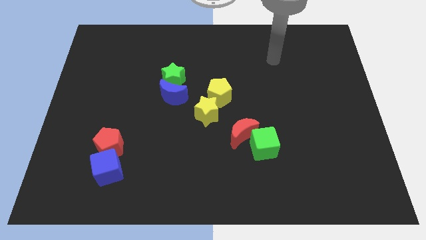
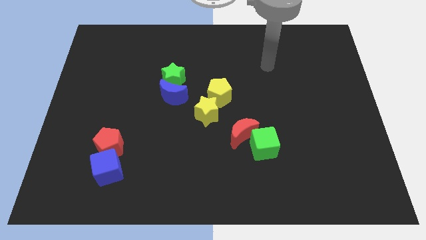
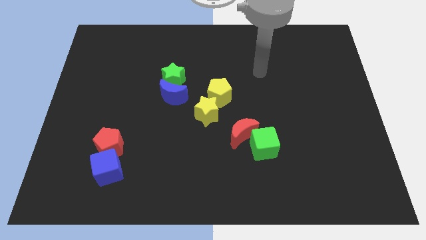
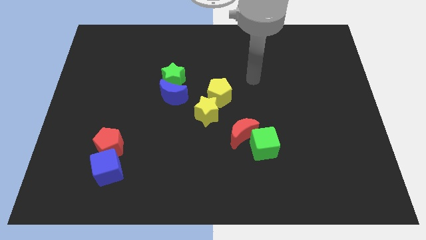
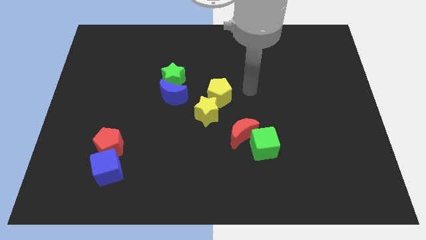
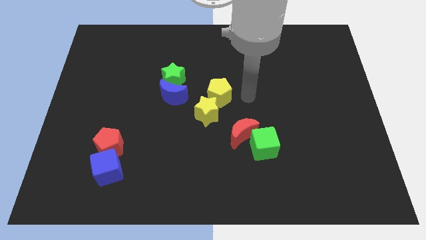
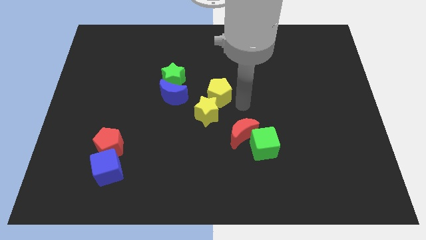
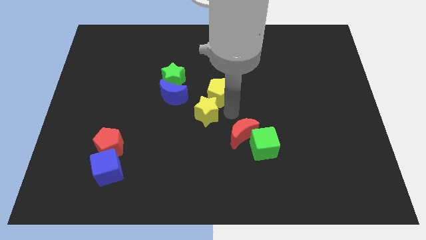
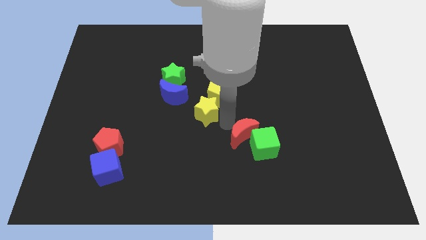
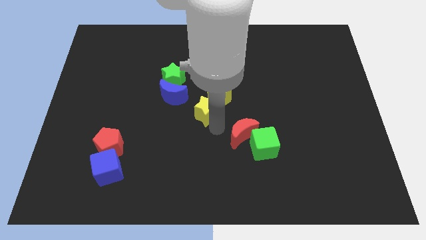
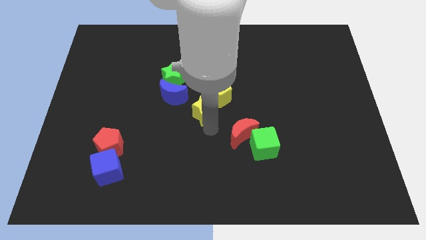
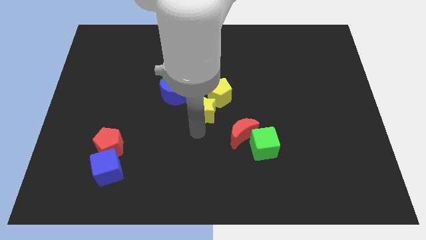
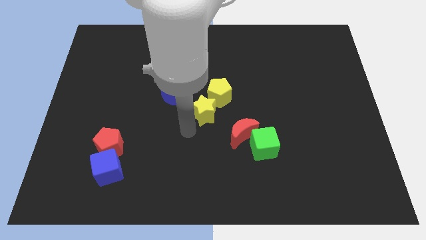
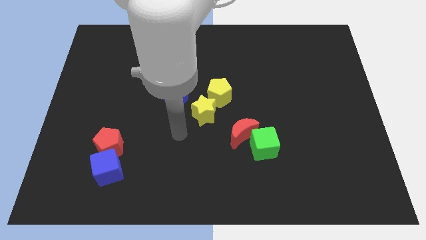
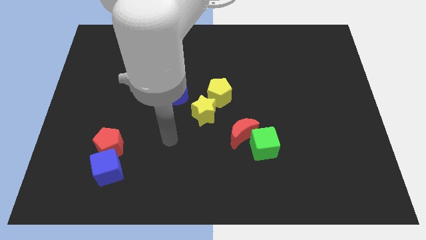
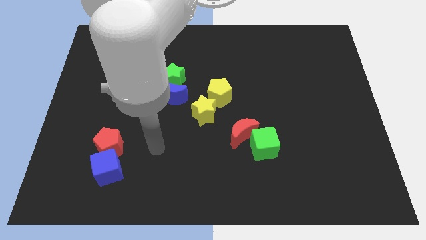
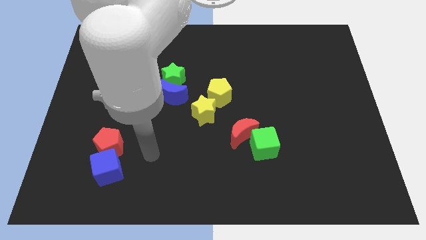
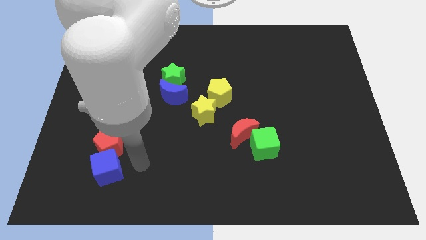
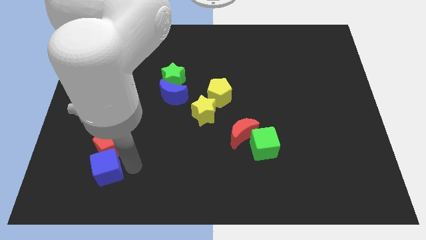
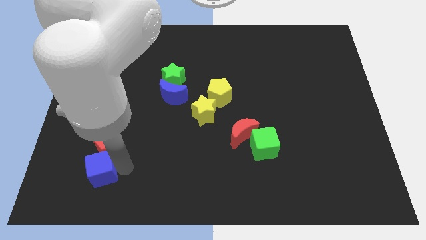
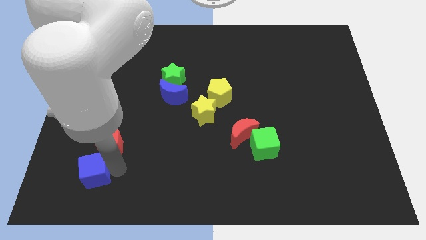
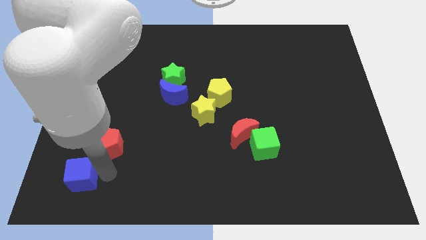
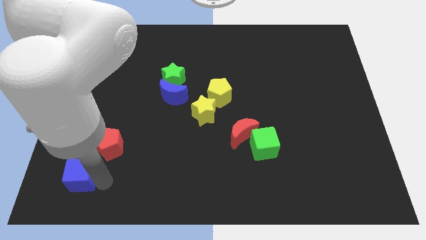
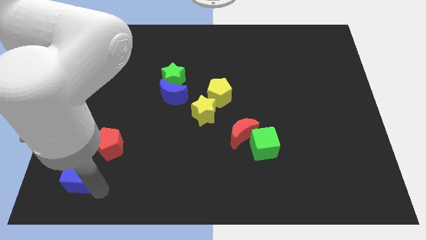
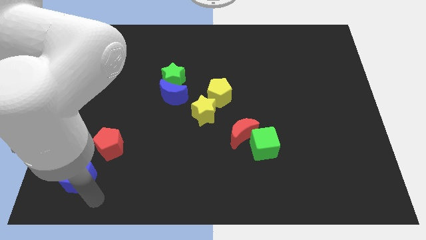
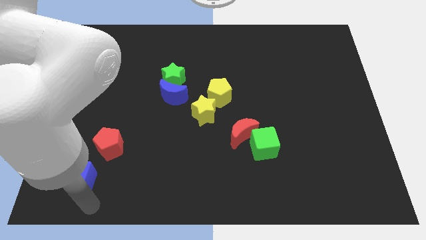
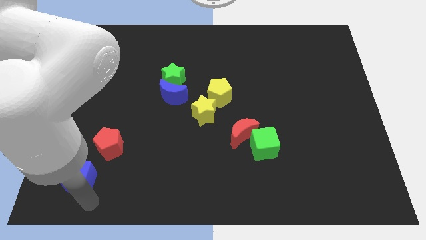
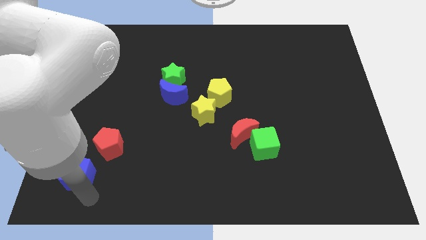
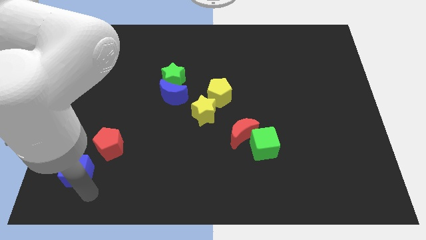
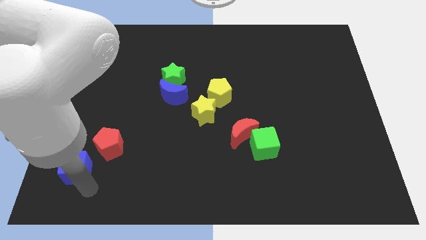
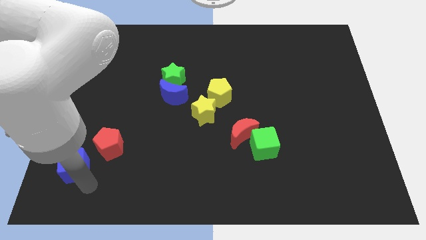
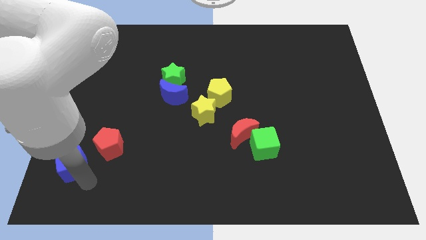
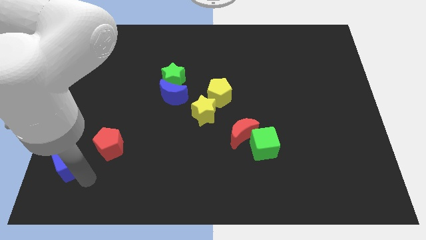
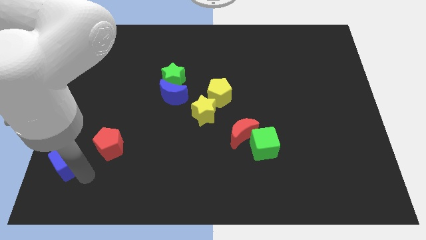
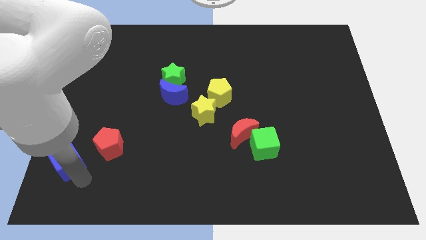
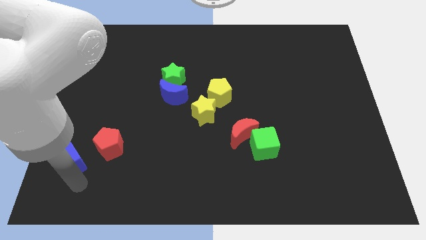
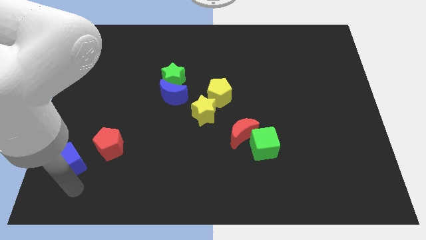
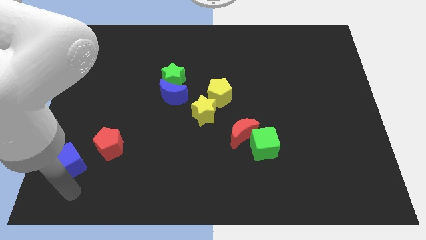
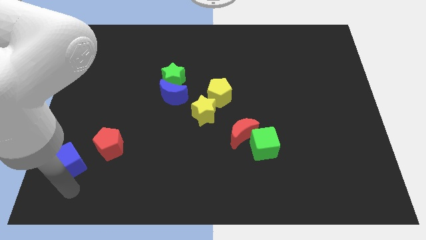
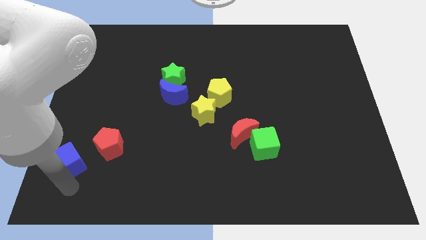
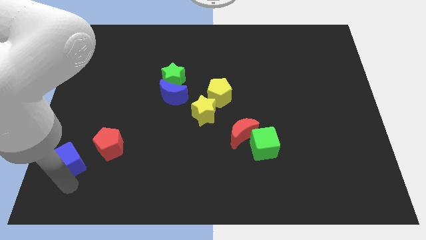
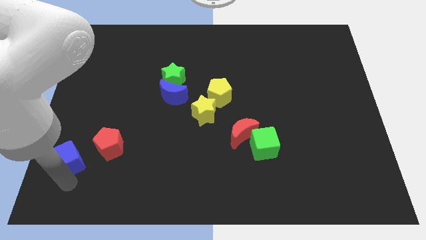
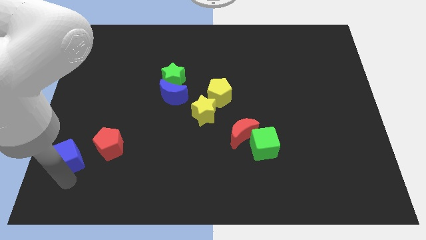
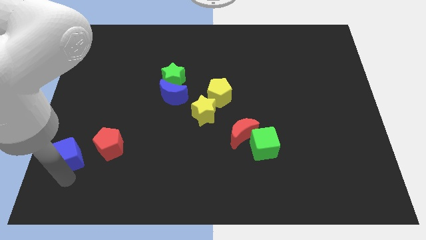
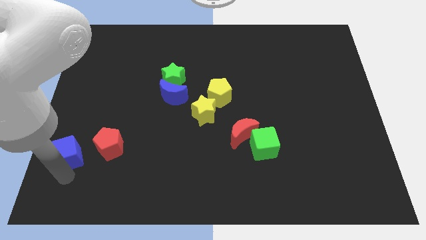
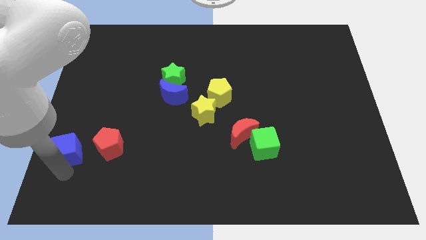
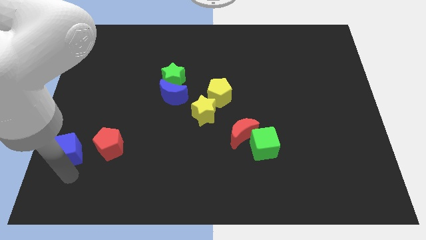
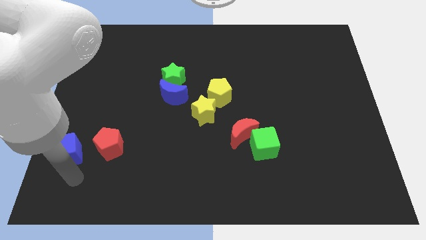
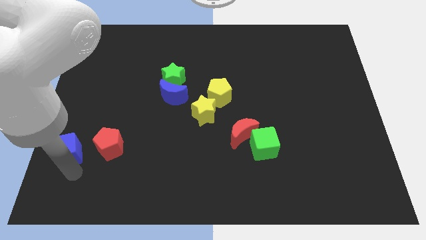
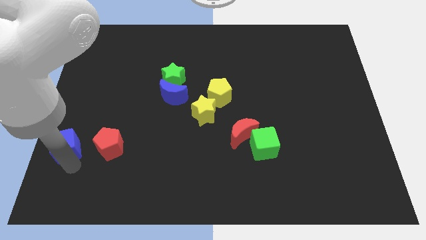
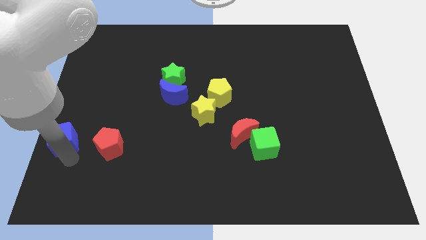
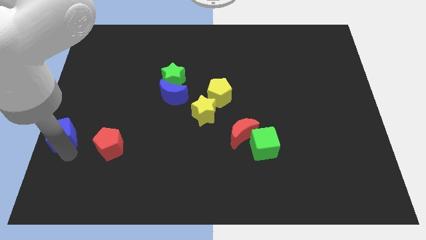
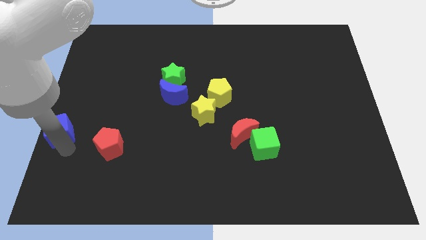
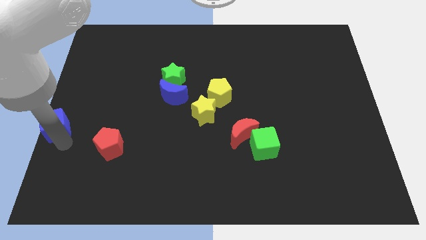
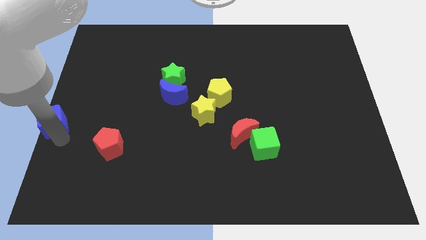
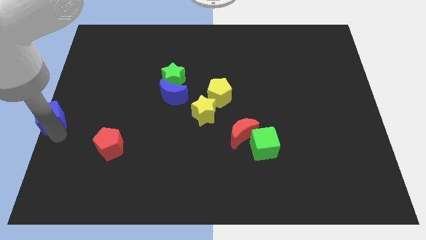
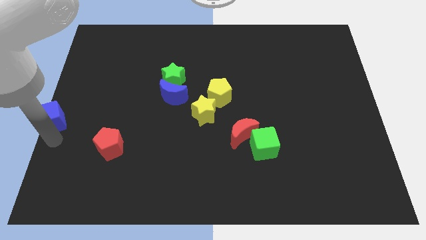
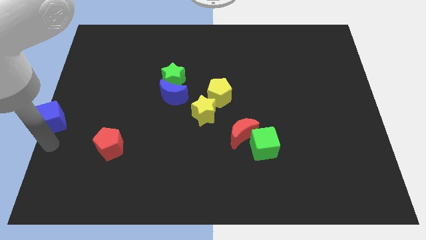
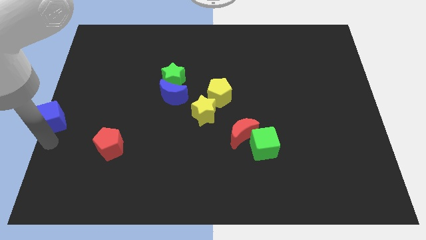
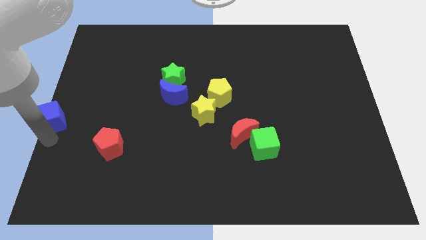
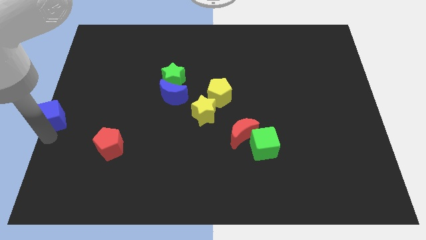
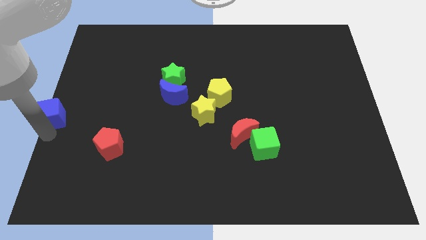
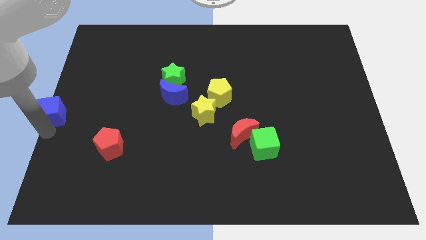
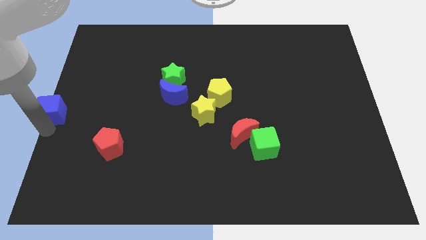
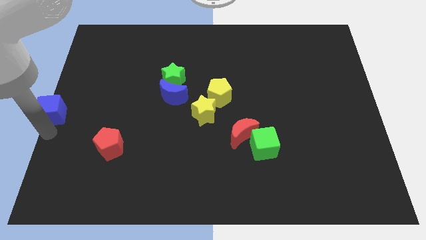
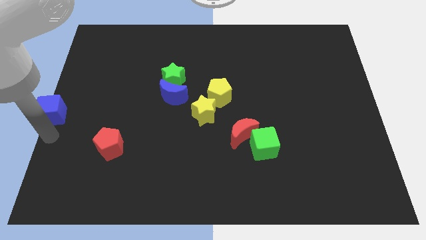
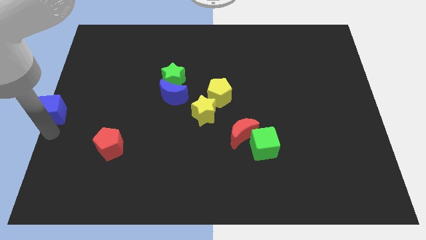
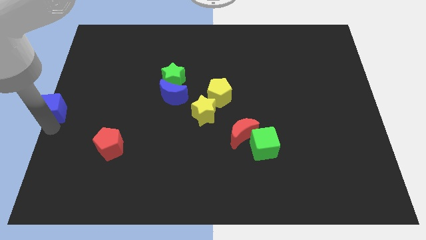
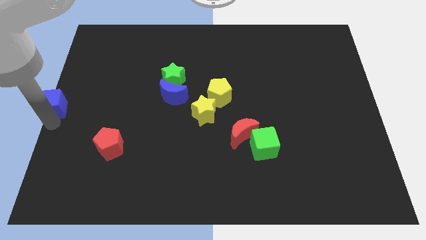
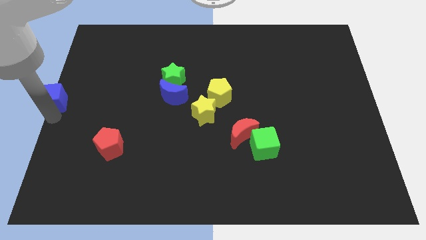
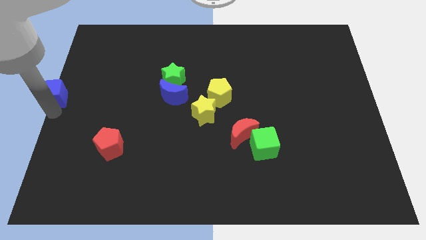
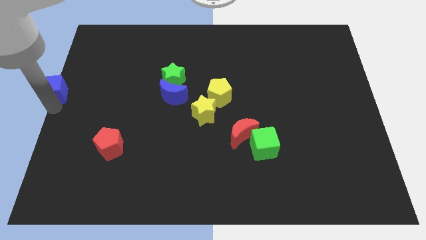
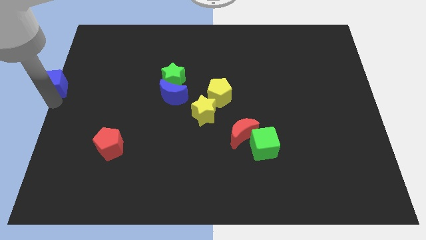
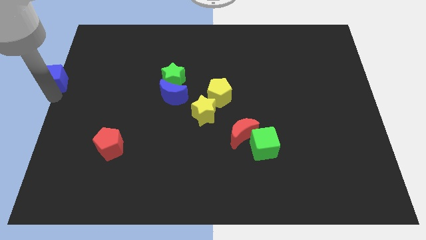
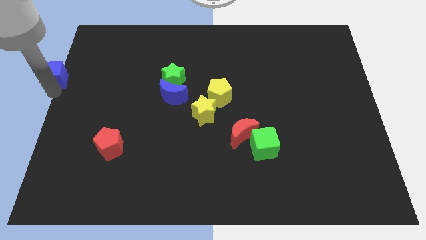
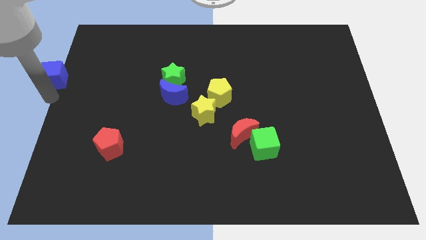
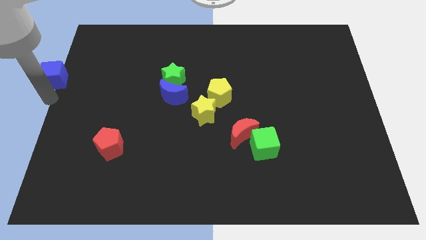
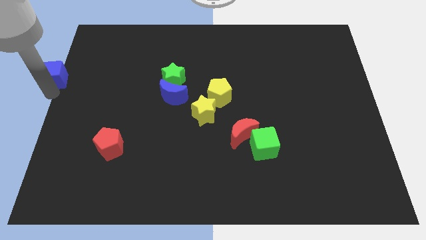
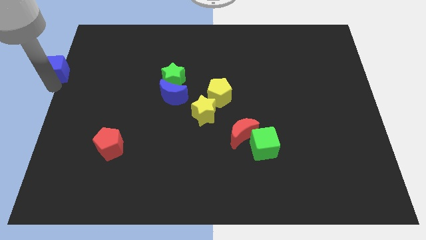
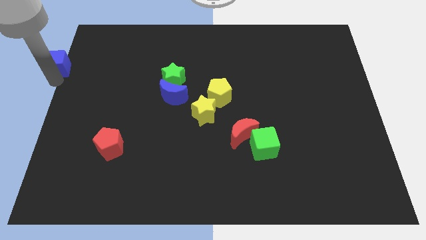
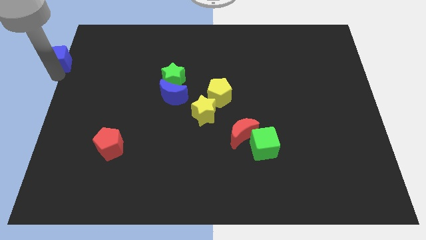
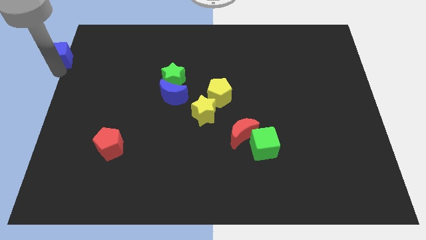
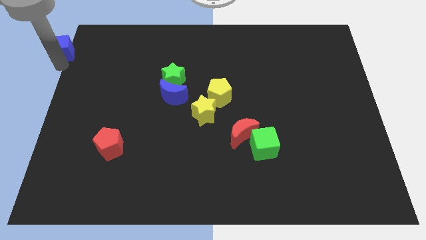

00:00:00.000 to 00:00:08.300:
move the blue cube to the top left corner
